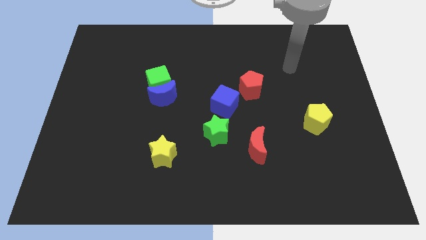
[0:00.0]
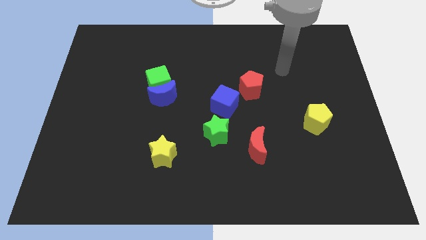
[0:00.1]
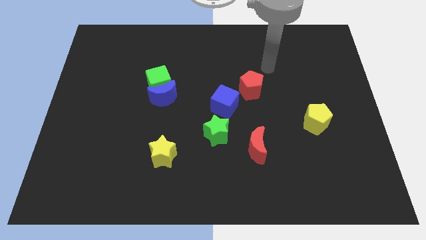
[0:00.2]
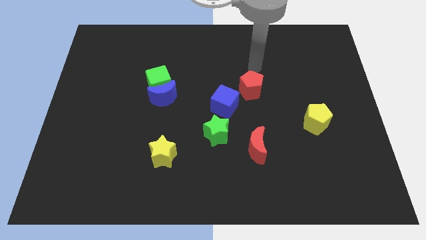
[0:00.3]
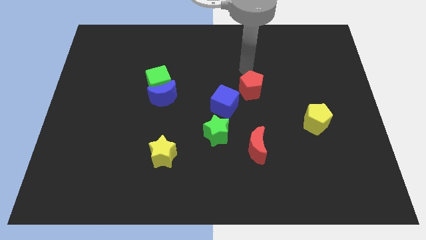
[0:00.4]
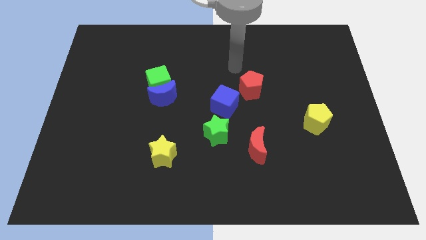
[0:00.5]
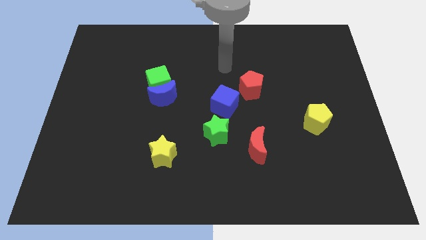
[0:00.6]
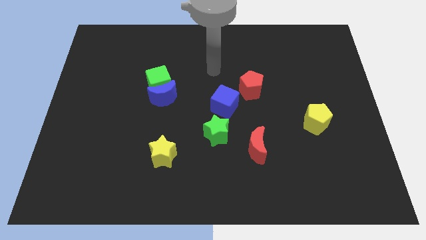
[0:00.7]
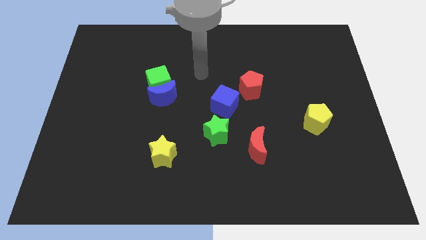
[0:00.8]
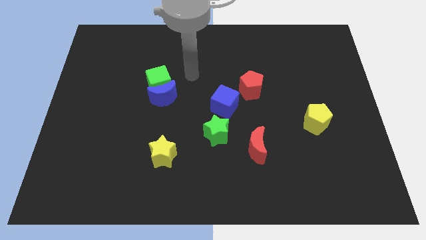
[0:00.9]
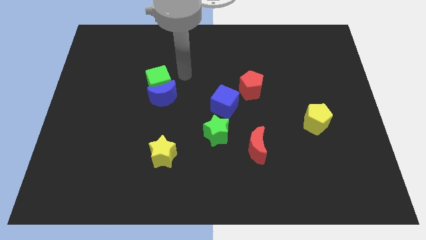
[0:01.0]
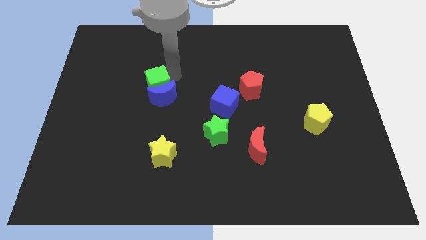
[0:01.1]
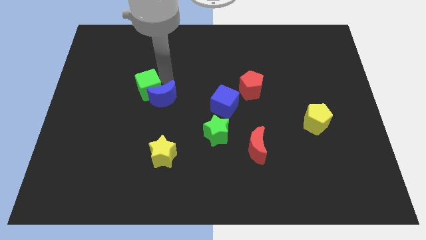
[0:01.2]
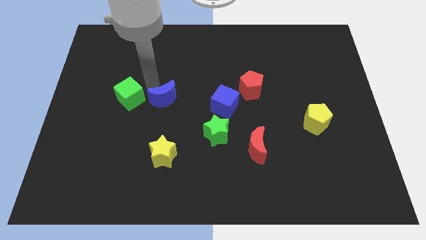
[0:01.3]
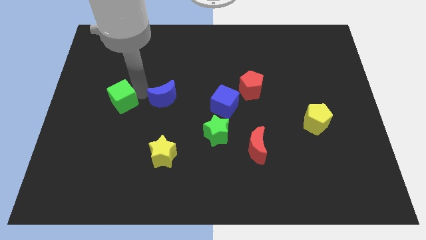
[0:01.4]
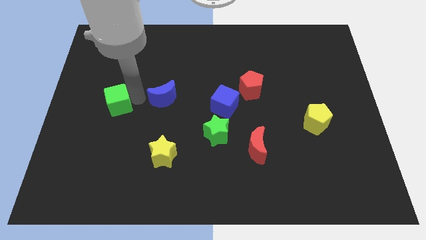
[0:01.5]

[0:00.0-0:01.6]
pull the blue moon apart from the green cube

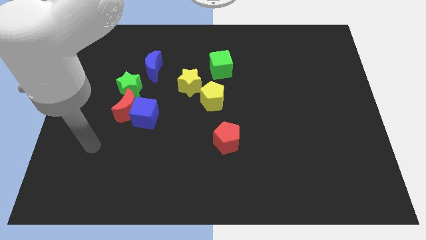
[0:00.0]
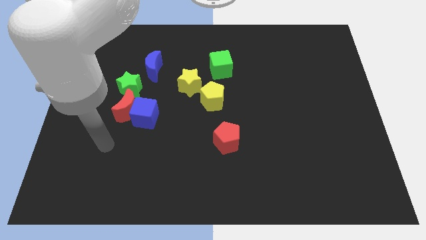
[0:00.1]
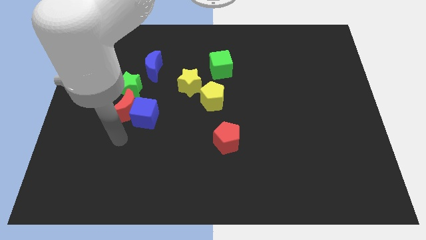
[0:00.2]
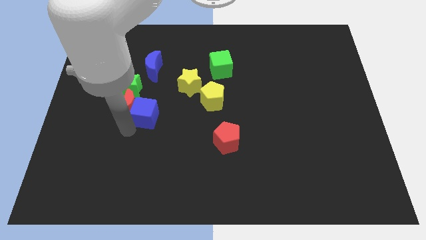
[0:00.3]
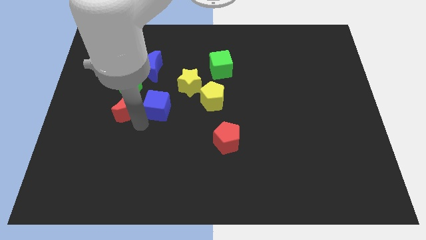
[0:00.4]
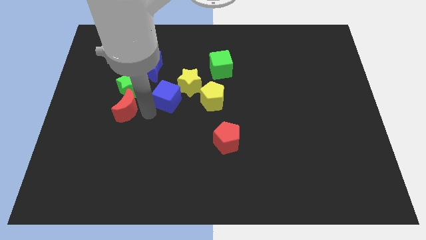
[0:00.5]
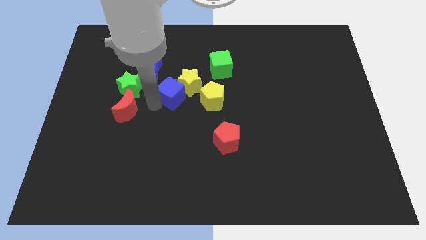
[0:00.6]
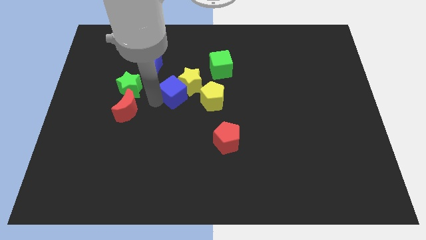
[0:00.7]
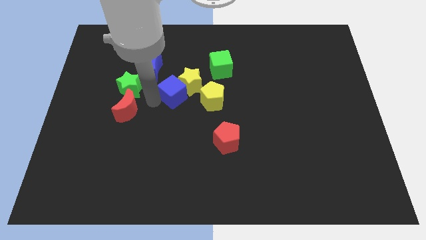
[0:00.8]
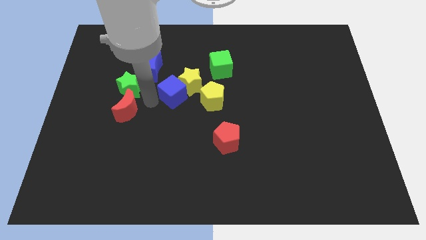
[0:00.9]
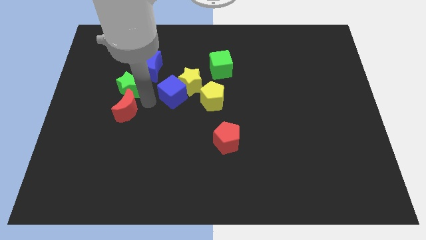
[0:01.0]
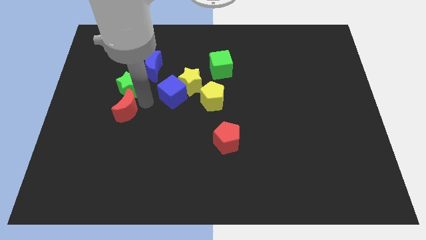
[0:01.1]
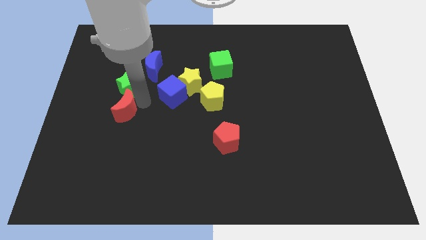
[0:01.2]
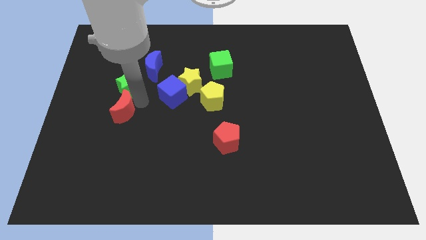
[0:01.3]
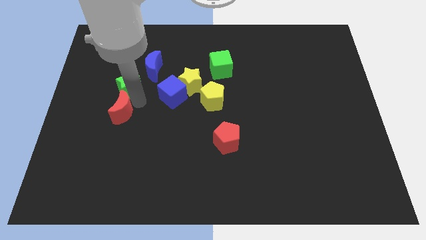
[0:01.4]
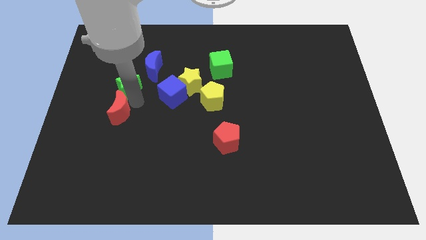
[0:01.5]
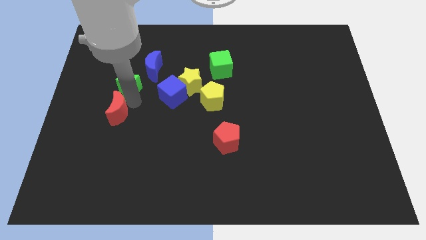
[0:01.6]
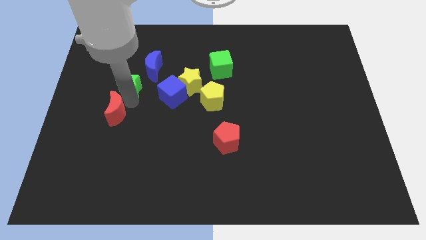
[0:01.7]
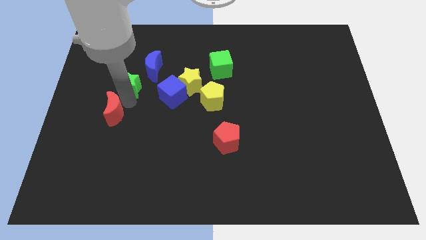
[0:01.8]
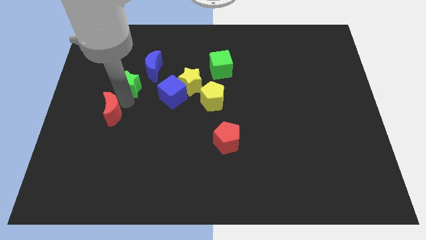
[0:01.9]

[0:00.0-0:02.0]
move the red moon away from the blue cube and green star

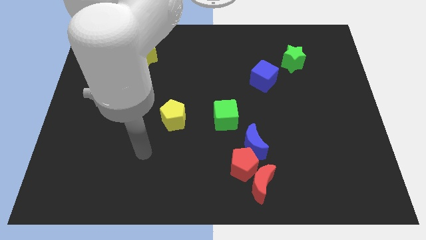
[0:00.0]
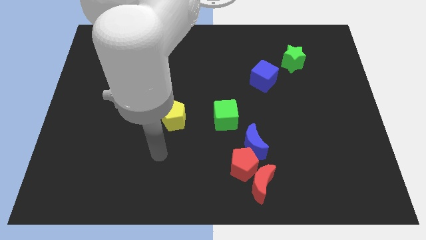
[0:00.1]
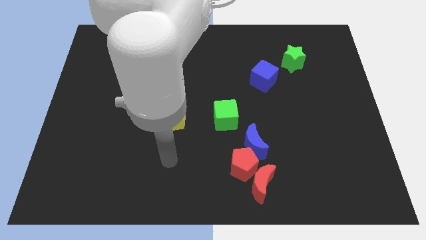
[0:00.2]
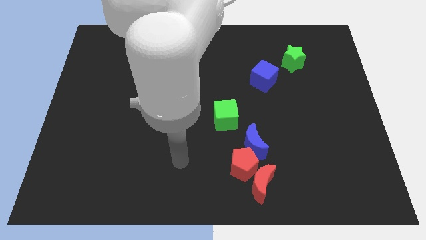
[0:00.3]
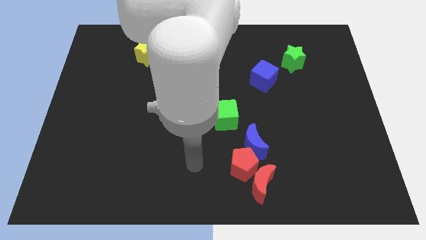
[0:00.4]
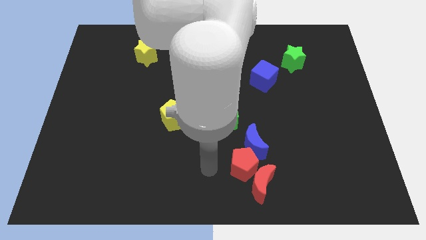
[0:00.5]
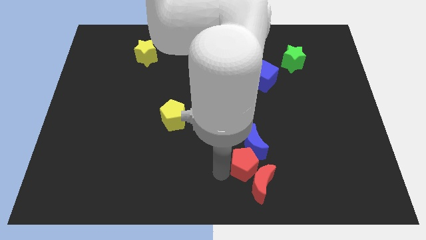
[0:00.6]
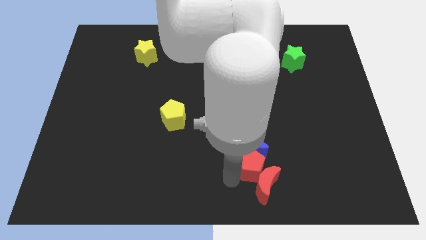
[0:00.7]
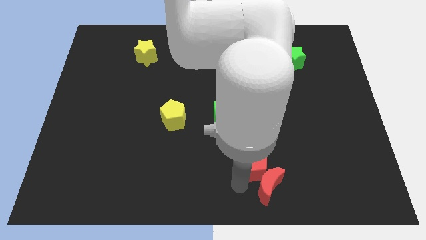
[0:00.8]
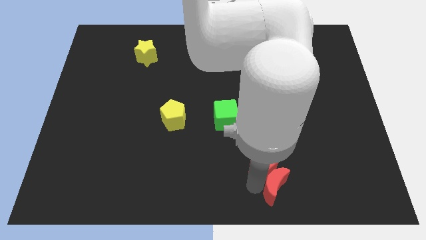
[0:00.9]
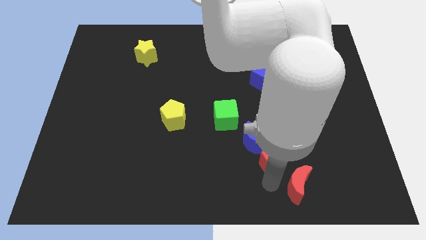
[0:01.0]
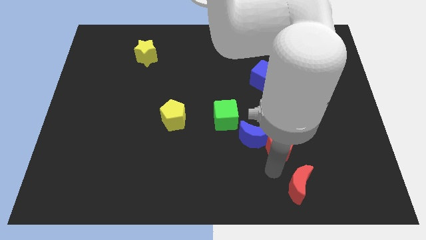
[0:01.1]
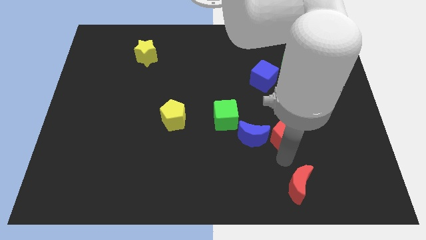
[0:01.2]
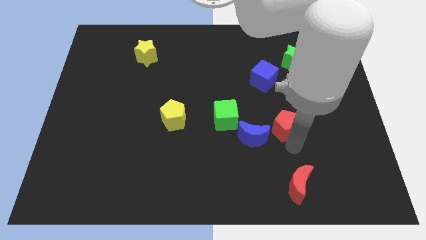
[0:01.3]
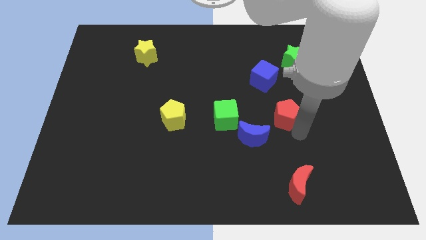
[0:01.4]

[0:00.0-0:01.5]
separate the red pentagon from the red moon and blue moon

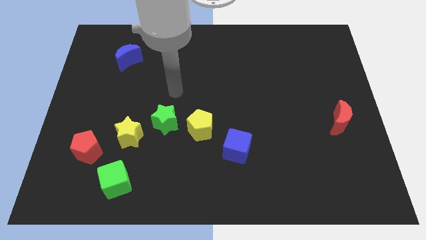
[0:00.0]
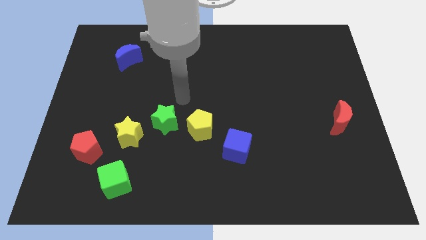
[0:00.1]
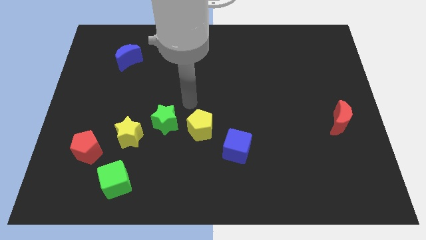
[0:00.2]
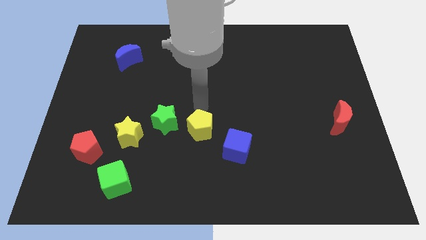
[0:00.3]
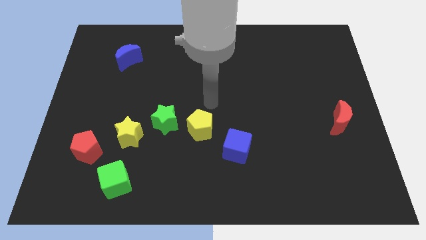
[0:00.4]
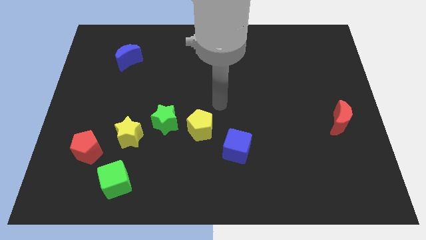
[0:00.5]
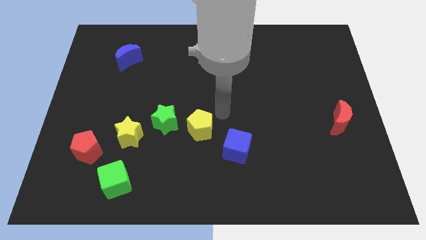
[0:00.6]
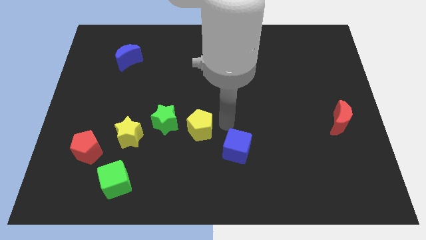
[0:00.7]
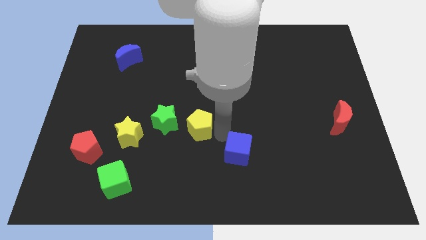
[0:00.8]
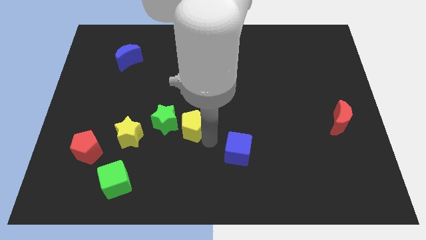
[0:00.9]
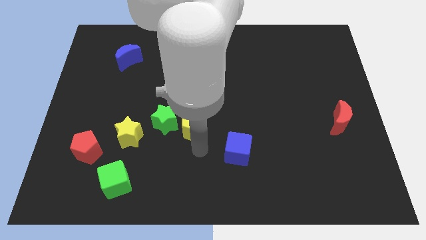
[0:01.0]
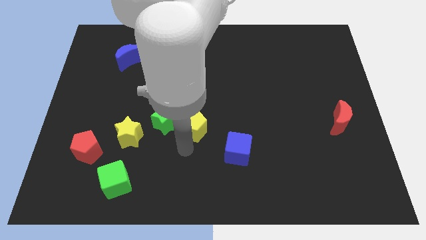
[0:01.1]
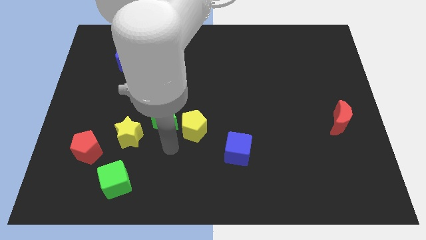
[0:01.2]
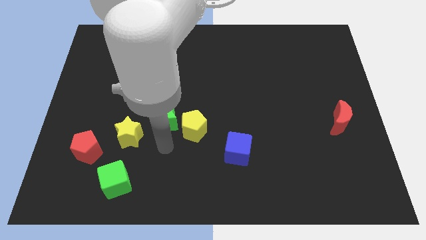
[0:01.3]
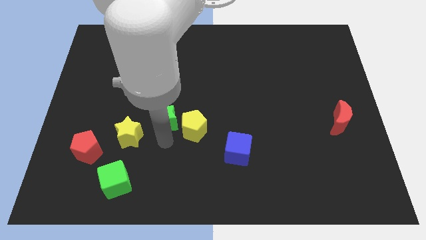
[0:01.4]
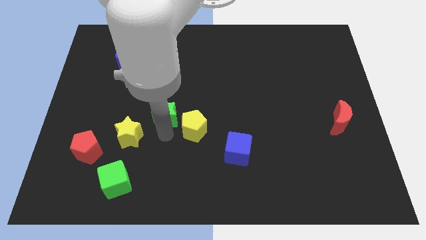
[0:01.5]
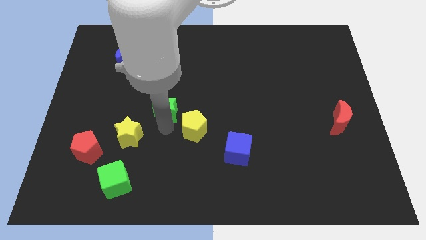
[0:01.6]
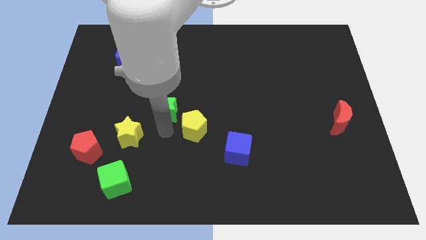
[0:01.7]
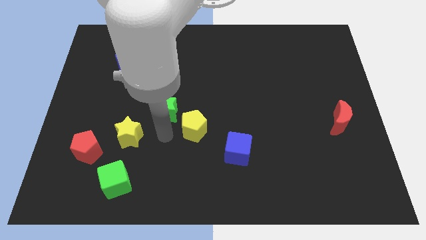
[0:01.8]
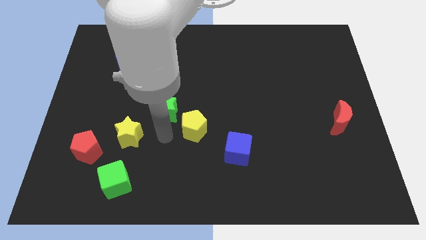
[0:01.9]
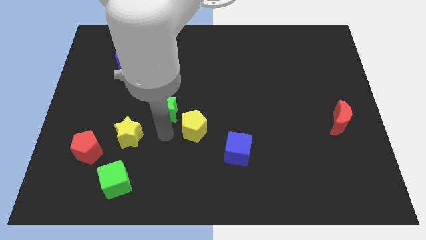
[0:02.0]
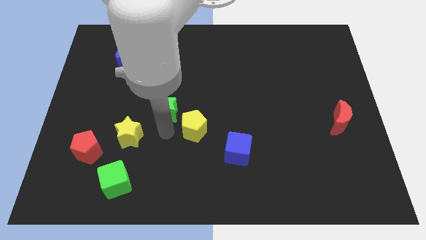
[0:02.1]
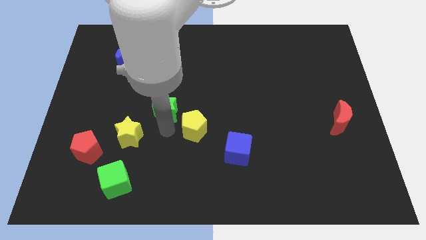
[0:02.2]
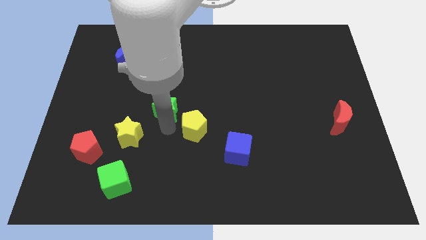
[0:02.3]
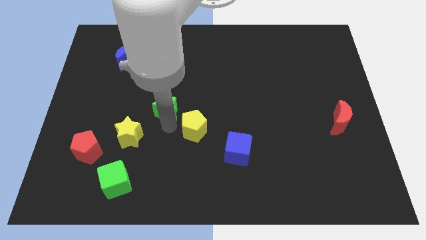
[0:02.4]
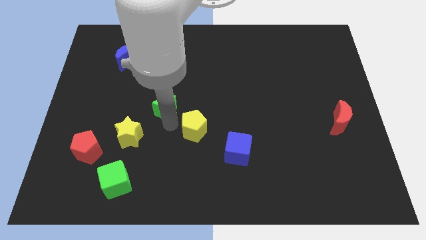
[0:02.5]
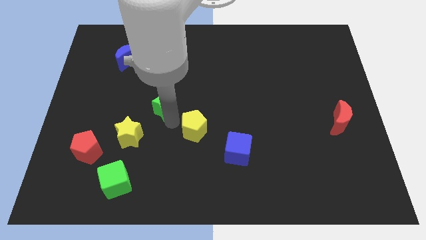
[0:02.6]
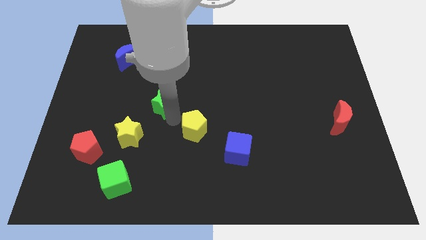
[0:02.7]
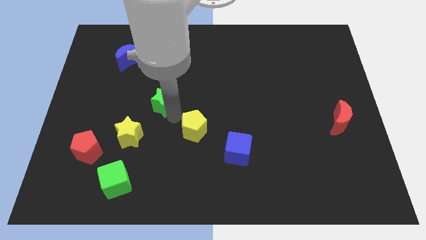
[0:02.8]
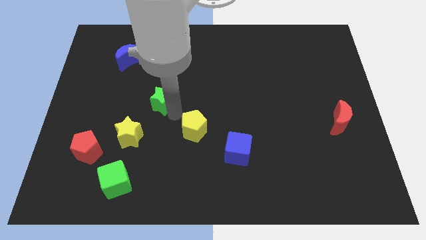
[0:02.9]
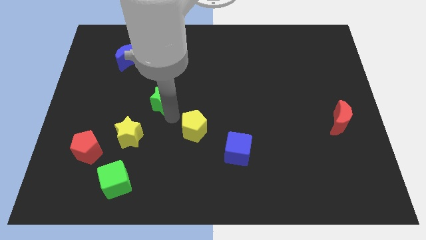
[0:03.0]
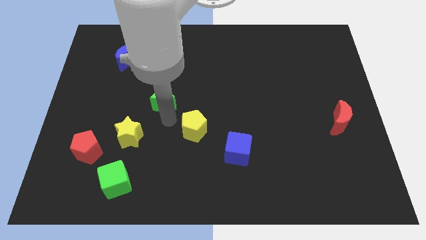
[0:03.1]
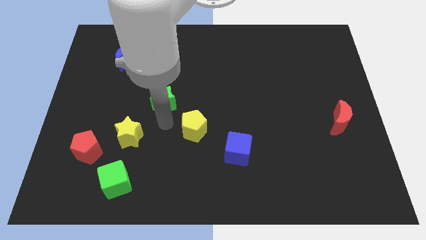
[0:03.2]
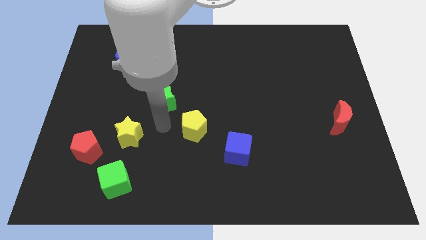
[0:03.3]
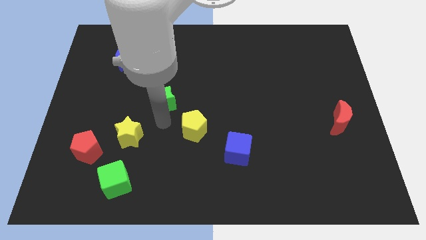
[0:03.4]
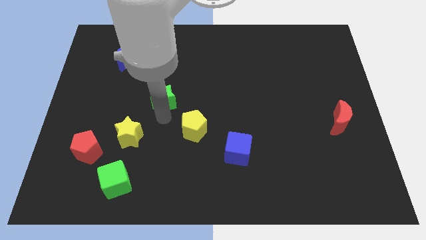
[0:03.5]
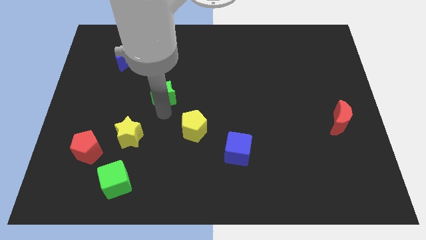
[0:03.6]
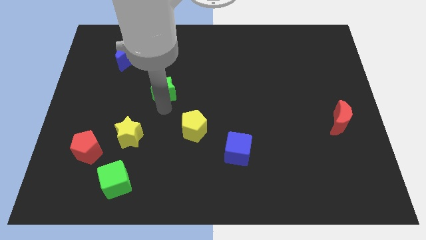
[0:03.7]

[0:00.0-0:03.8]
separate the green star from the yellow pentagon and yellow star

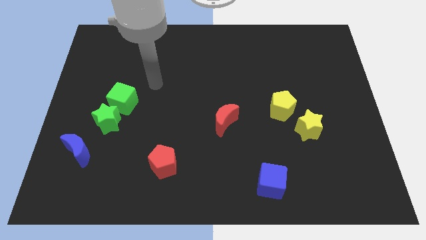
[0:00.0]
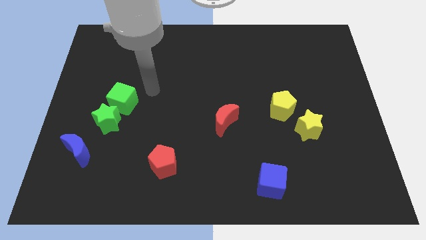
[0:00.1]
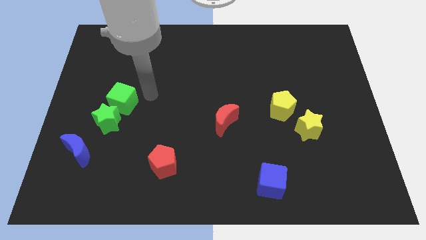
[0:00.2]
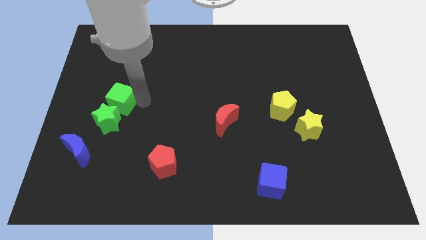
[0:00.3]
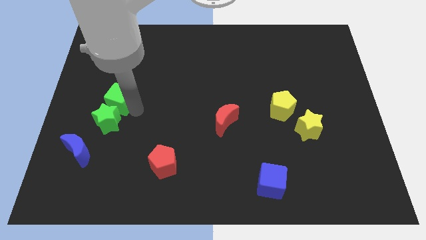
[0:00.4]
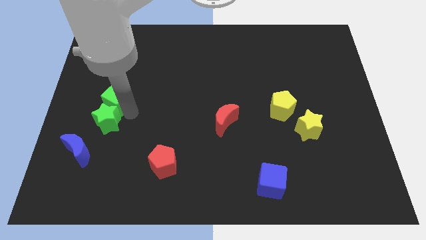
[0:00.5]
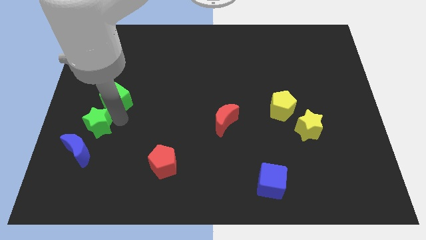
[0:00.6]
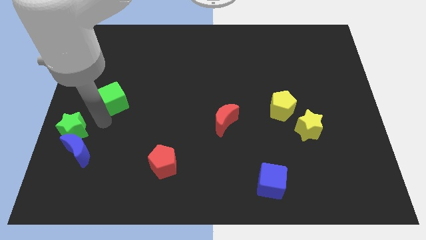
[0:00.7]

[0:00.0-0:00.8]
separate the green cube from the green star
